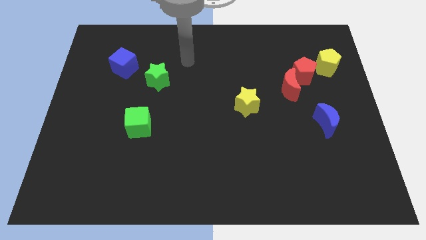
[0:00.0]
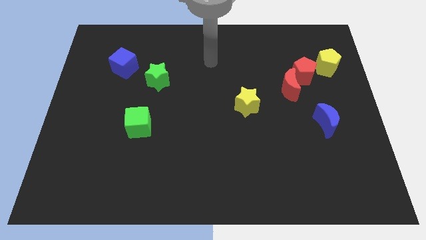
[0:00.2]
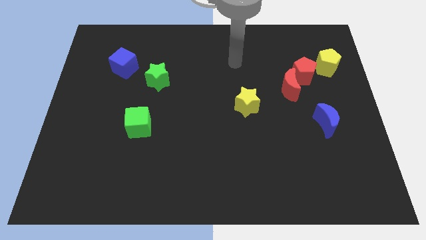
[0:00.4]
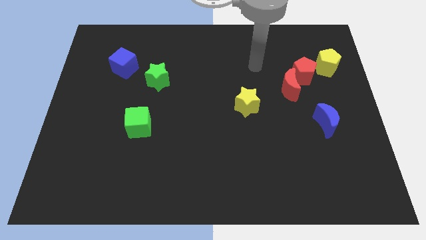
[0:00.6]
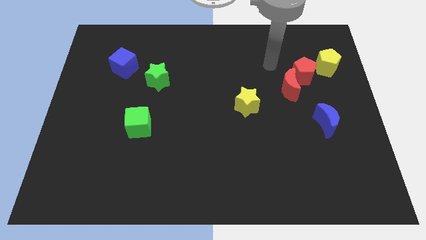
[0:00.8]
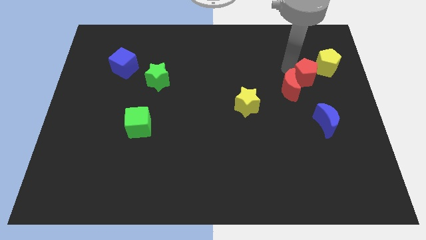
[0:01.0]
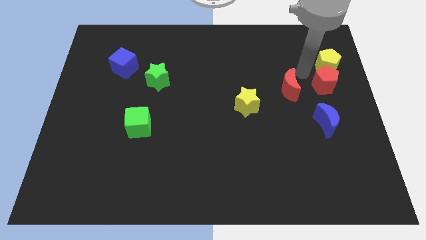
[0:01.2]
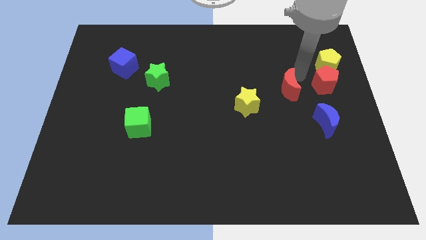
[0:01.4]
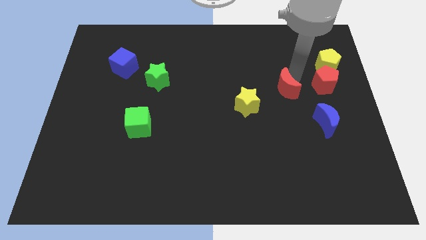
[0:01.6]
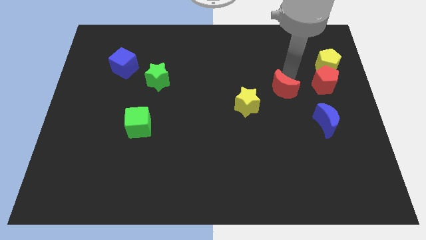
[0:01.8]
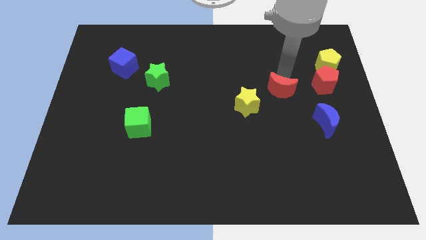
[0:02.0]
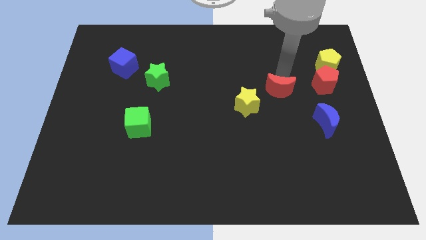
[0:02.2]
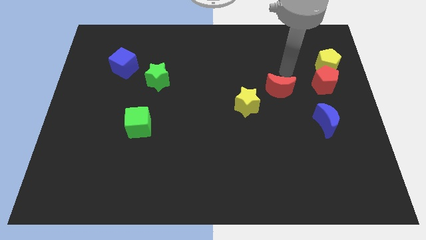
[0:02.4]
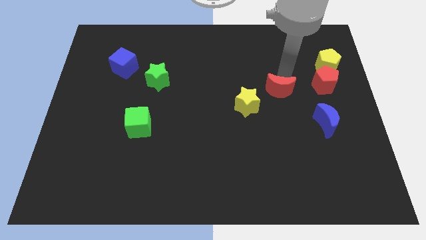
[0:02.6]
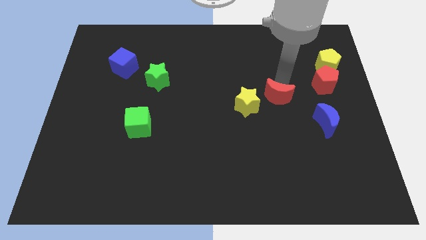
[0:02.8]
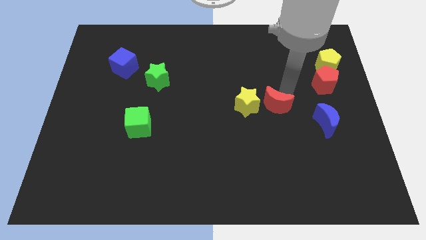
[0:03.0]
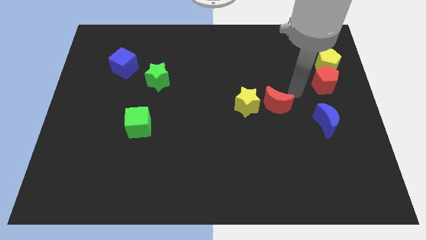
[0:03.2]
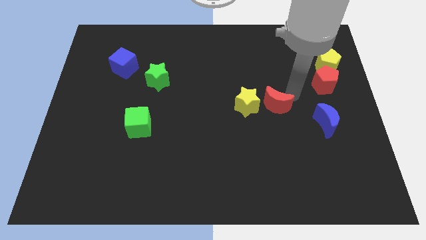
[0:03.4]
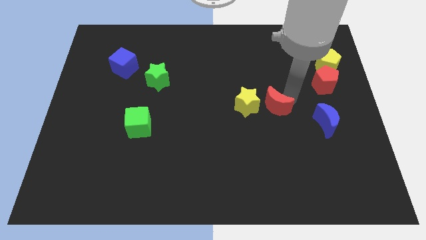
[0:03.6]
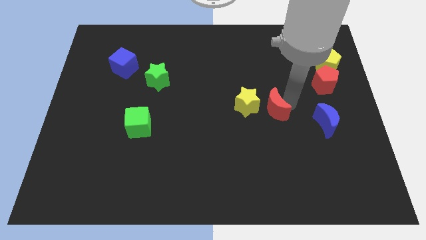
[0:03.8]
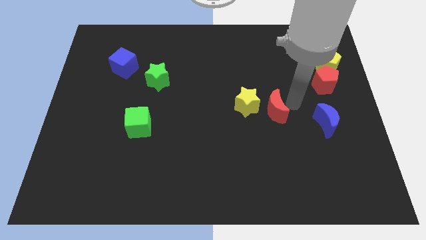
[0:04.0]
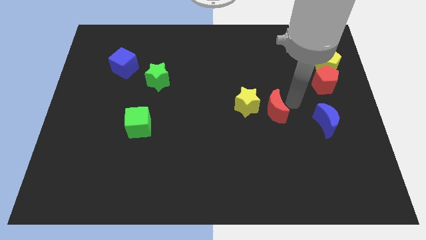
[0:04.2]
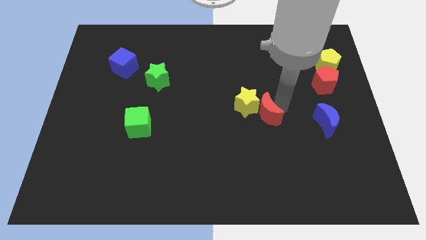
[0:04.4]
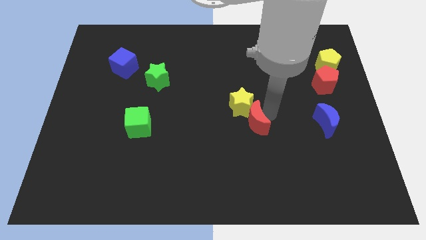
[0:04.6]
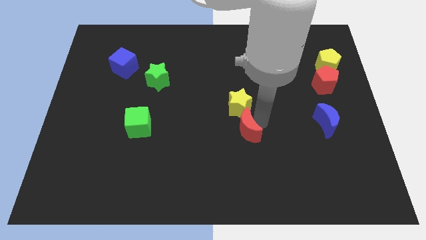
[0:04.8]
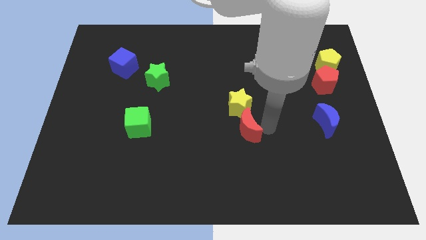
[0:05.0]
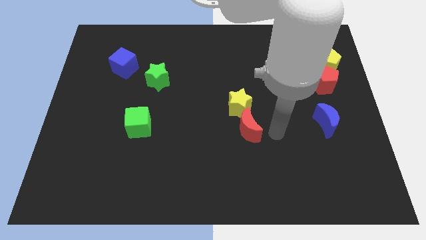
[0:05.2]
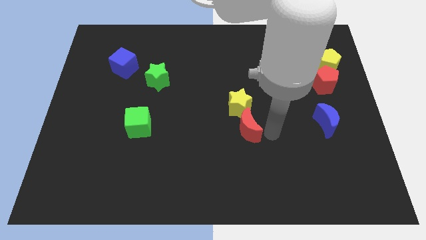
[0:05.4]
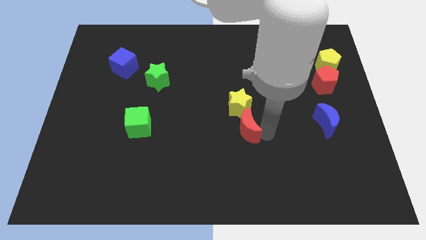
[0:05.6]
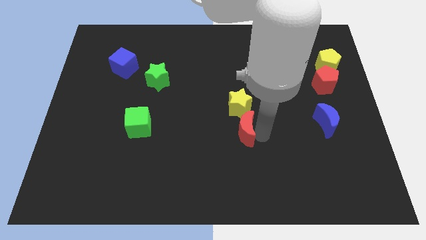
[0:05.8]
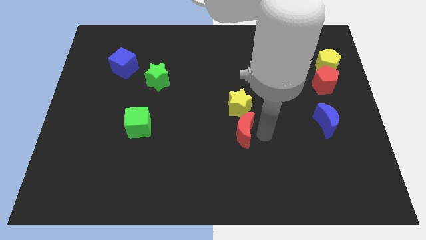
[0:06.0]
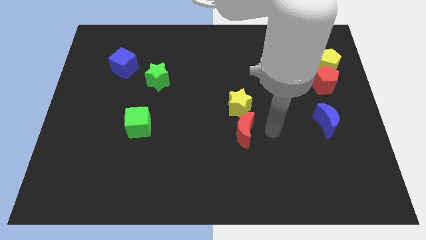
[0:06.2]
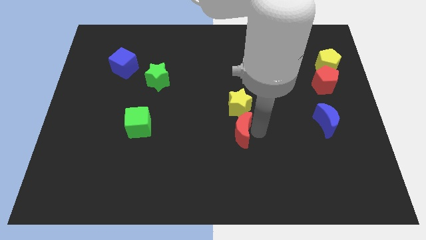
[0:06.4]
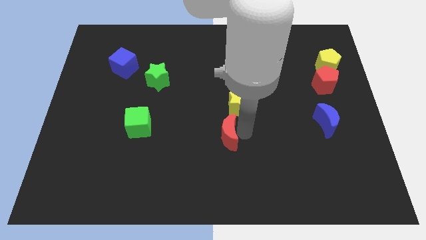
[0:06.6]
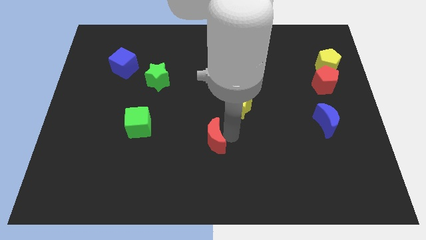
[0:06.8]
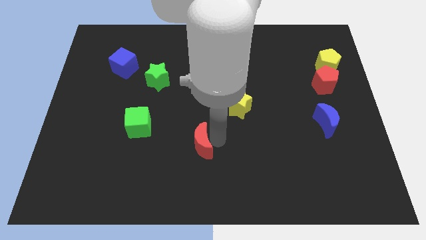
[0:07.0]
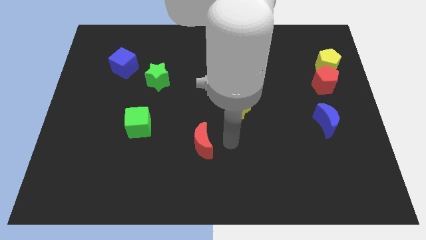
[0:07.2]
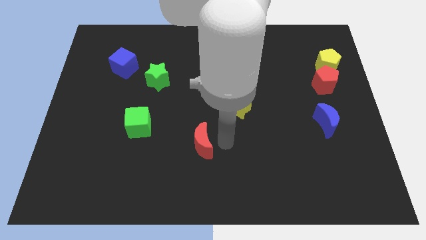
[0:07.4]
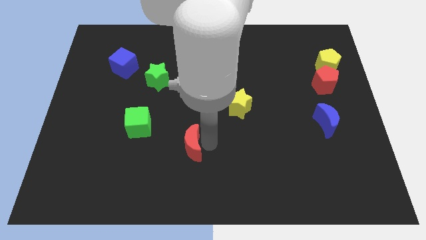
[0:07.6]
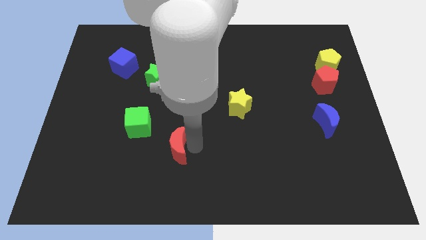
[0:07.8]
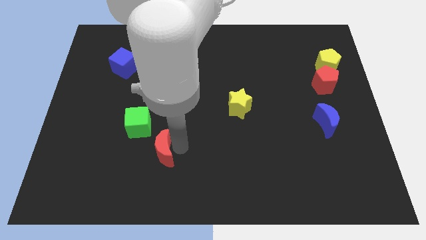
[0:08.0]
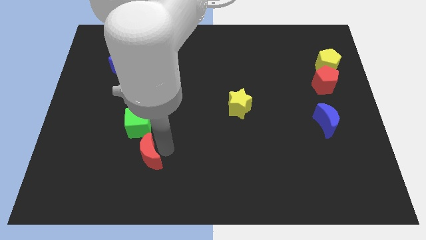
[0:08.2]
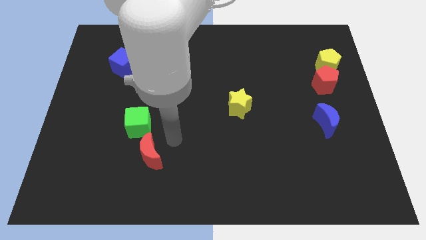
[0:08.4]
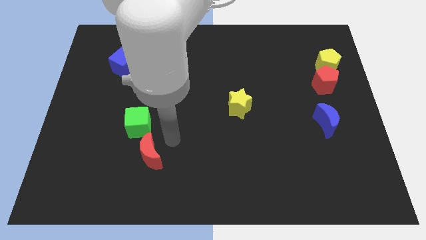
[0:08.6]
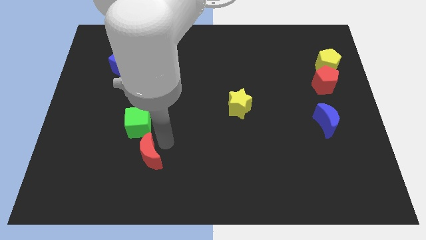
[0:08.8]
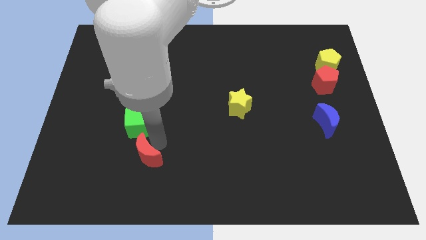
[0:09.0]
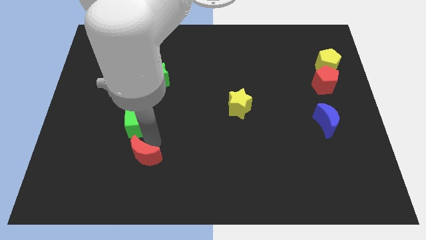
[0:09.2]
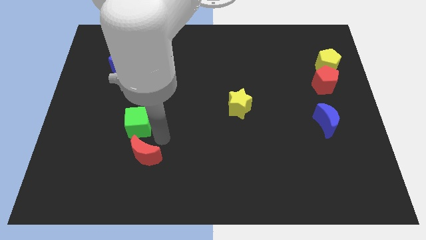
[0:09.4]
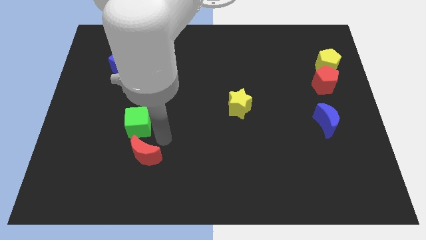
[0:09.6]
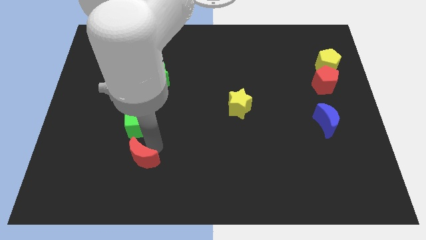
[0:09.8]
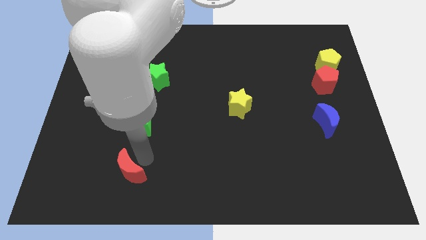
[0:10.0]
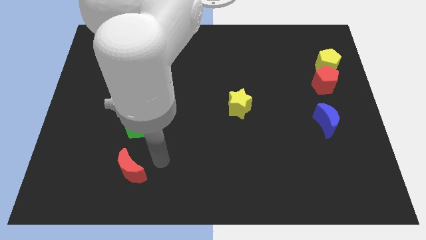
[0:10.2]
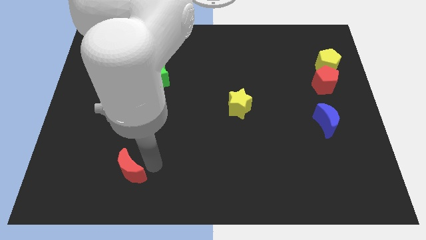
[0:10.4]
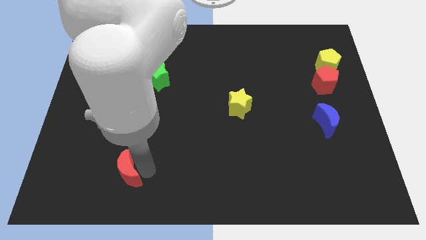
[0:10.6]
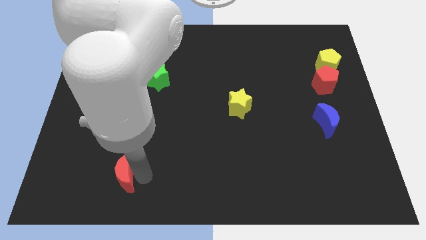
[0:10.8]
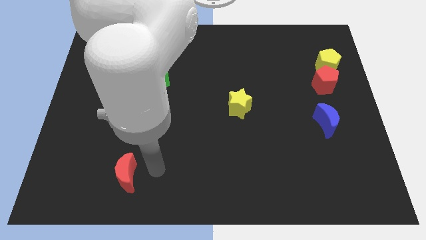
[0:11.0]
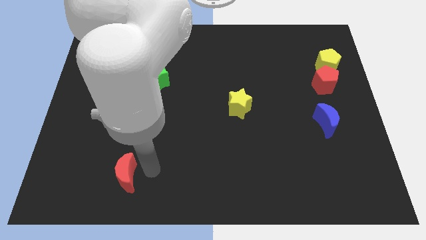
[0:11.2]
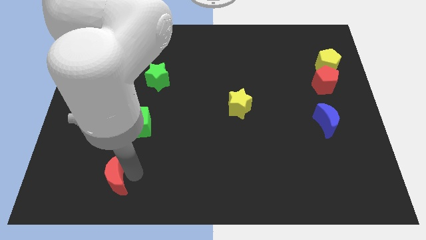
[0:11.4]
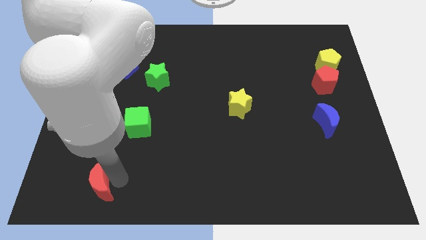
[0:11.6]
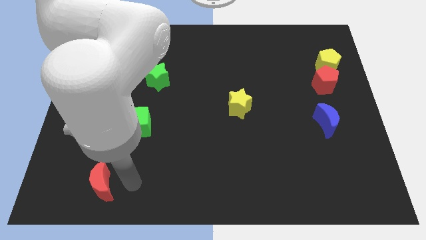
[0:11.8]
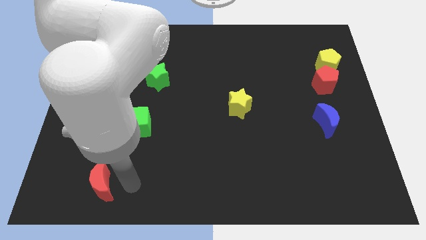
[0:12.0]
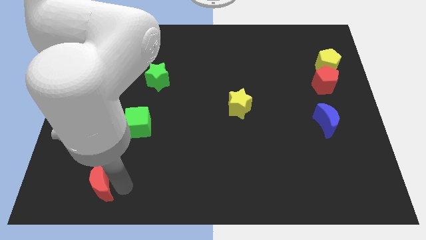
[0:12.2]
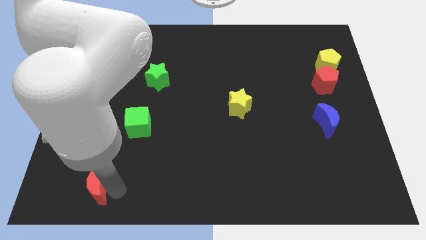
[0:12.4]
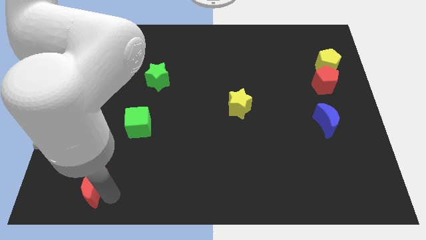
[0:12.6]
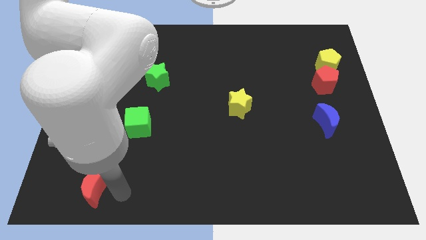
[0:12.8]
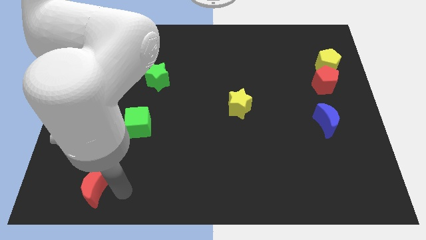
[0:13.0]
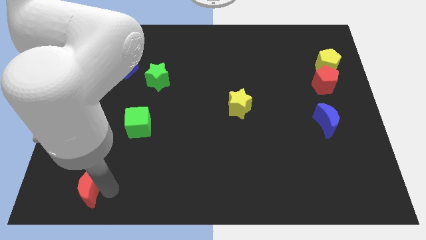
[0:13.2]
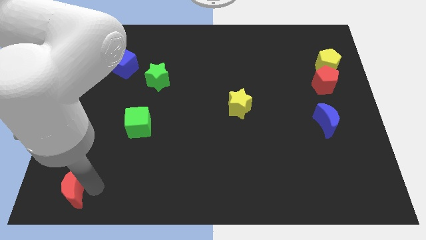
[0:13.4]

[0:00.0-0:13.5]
slide the red moon to the lower left corner
